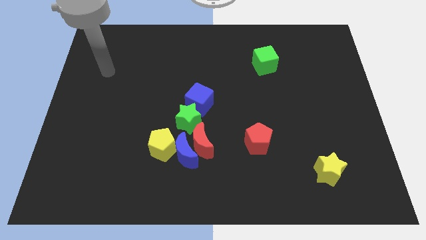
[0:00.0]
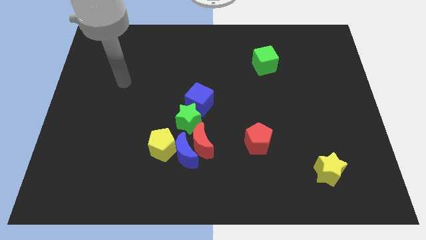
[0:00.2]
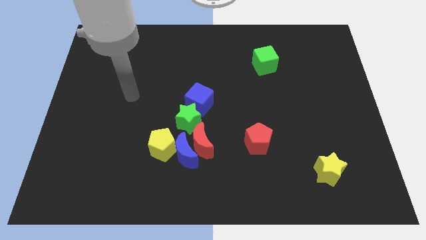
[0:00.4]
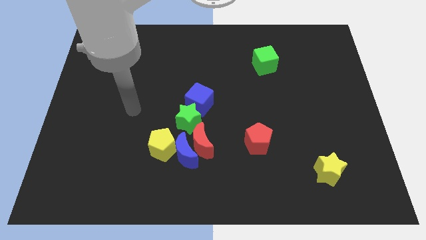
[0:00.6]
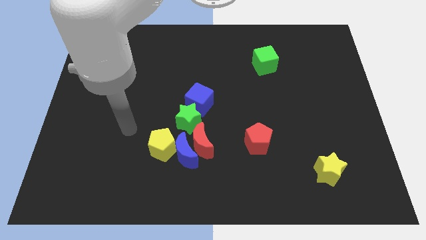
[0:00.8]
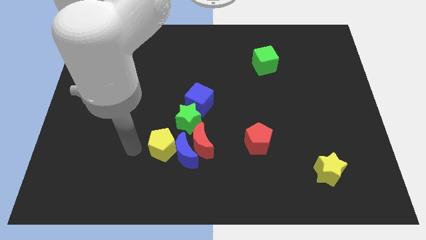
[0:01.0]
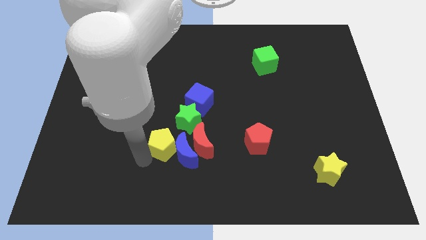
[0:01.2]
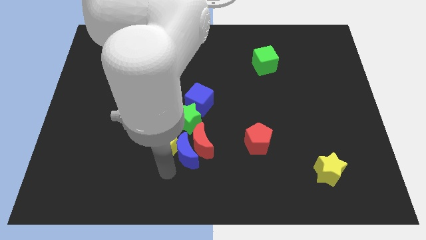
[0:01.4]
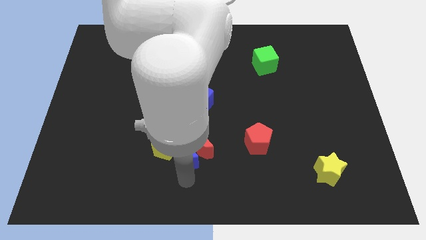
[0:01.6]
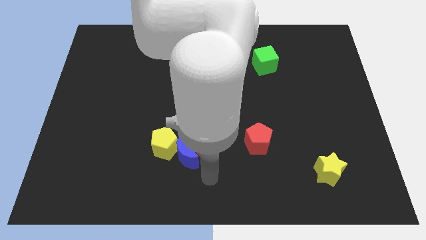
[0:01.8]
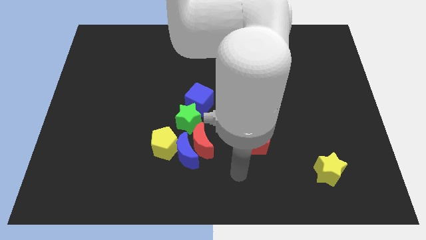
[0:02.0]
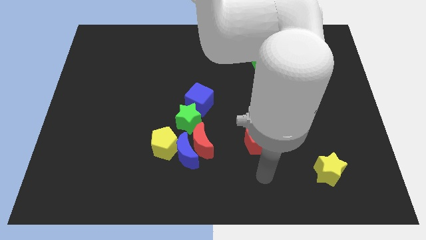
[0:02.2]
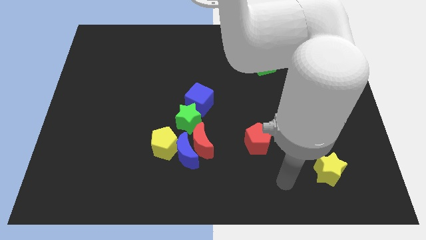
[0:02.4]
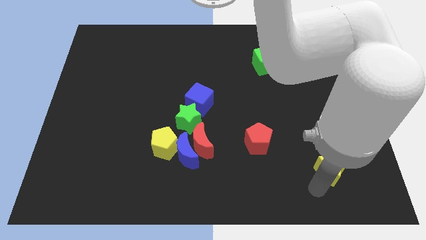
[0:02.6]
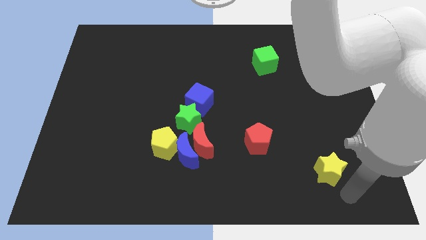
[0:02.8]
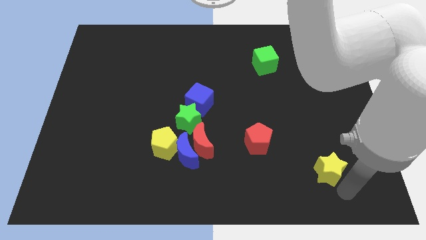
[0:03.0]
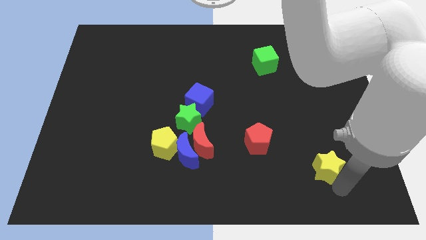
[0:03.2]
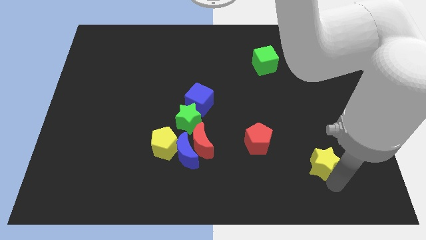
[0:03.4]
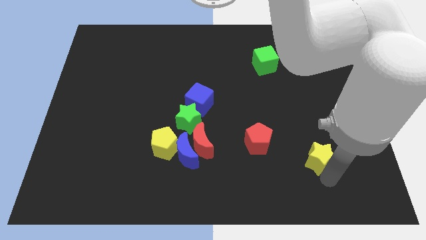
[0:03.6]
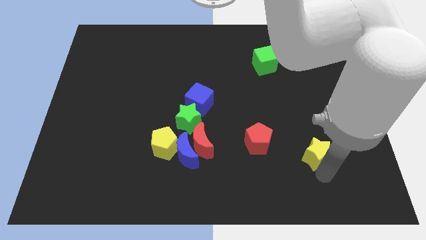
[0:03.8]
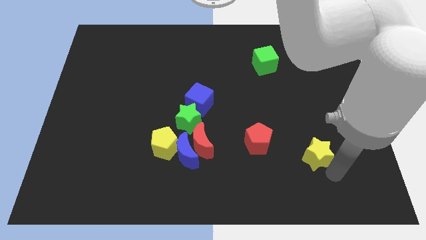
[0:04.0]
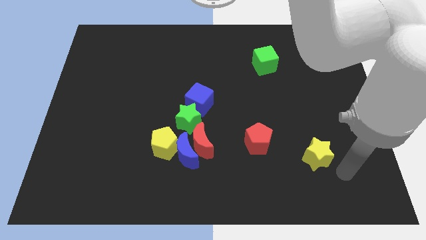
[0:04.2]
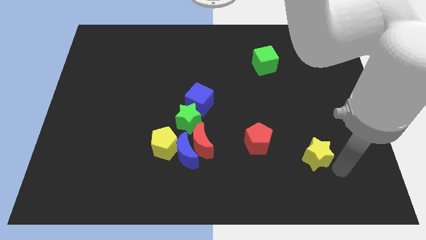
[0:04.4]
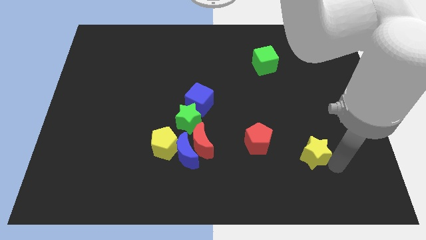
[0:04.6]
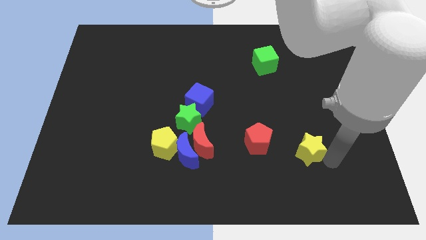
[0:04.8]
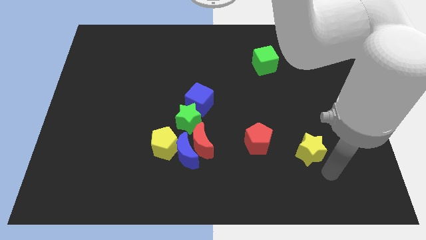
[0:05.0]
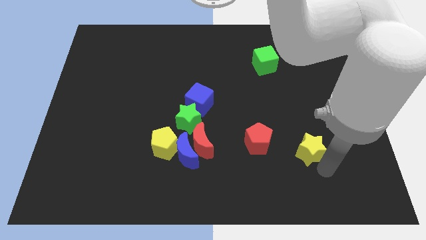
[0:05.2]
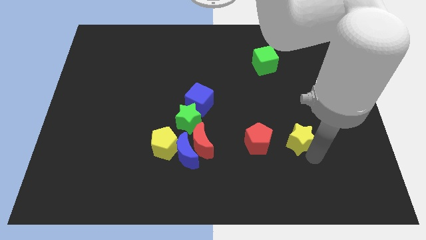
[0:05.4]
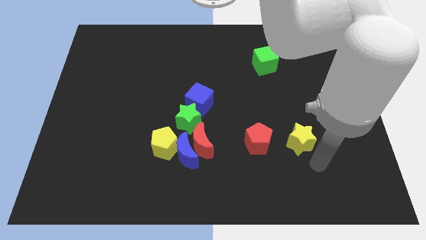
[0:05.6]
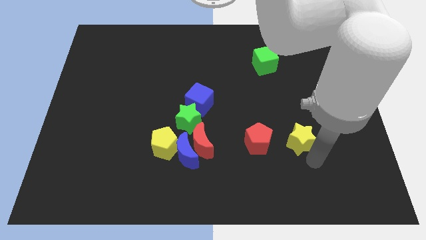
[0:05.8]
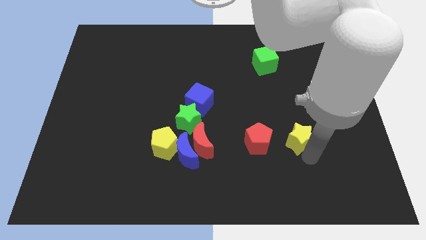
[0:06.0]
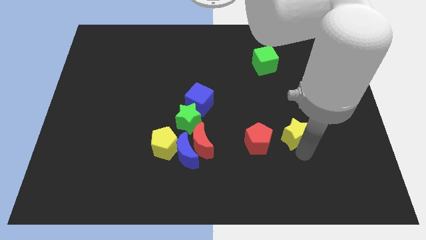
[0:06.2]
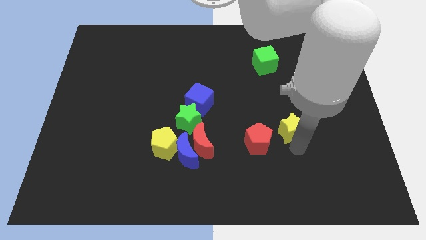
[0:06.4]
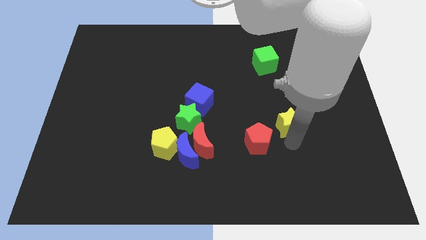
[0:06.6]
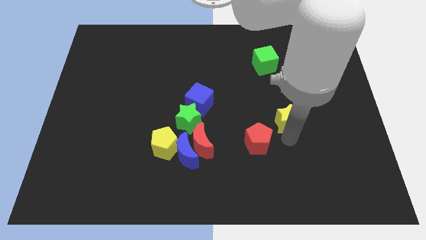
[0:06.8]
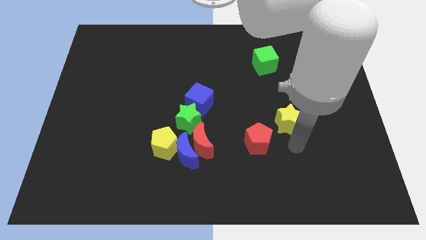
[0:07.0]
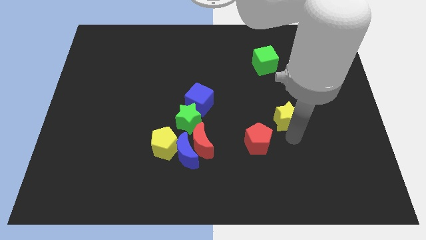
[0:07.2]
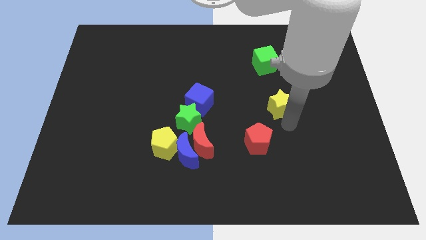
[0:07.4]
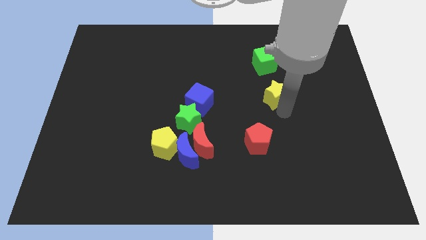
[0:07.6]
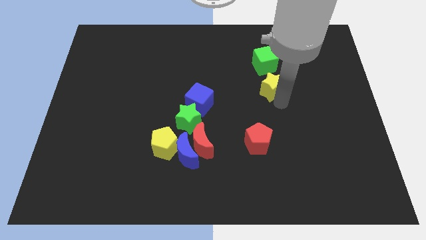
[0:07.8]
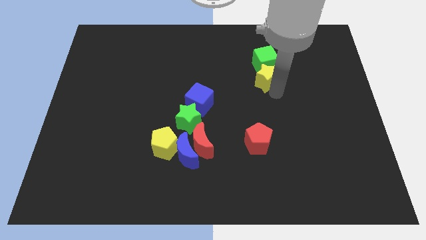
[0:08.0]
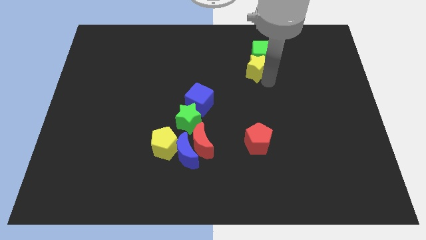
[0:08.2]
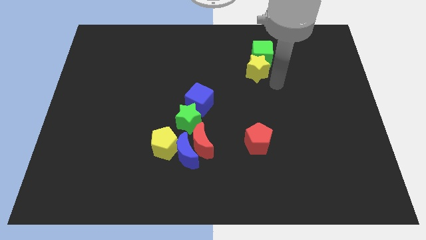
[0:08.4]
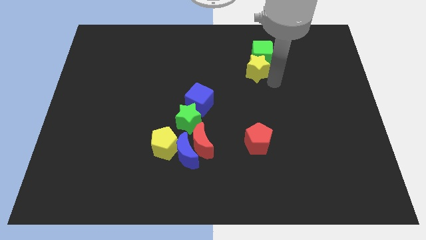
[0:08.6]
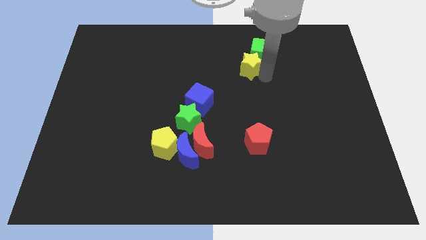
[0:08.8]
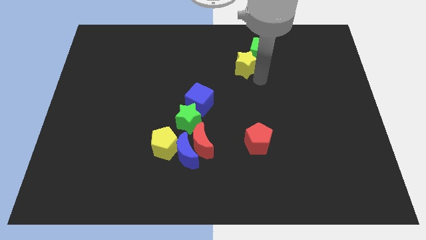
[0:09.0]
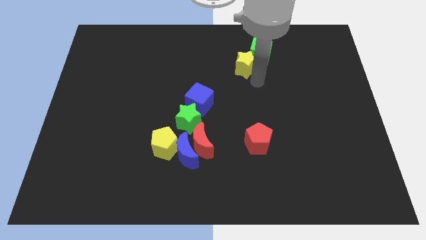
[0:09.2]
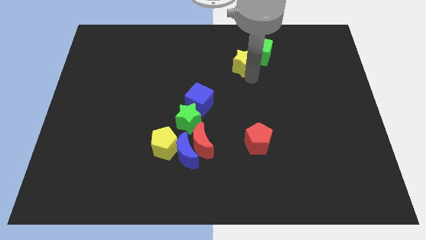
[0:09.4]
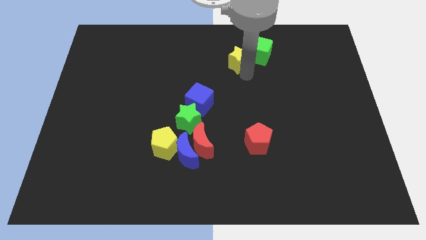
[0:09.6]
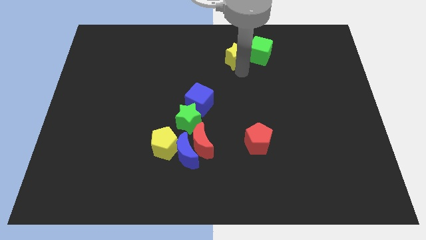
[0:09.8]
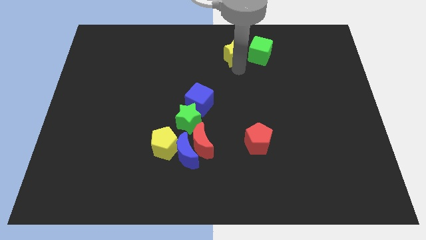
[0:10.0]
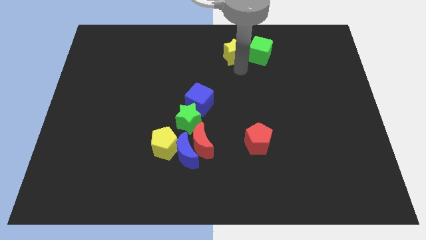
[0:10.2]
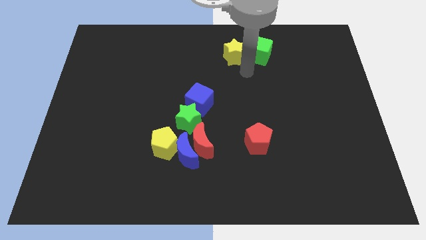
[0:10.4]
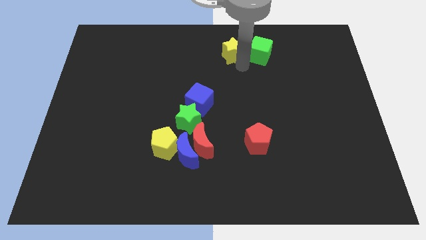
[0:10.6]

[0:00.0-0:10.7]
slide the yellow star to the top side
